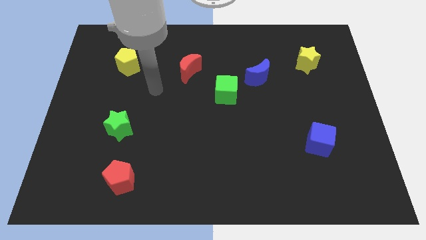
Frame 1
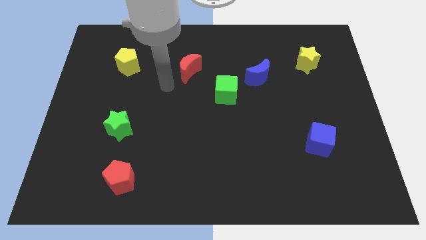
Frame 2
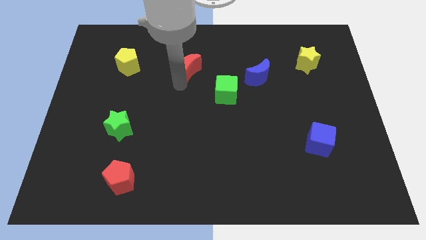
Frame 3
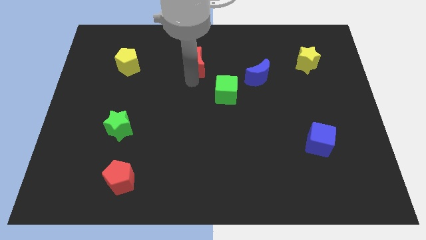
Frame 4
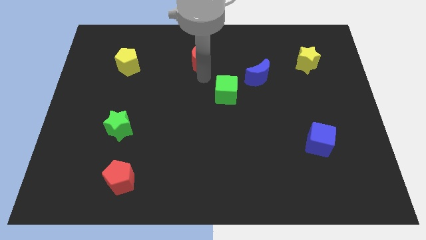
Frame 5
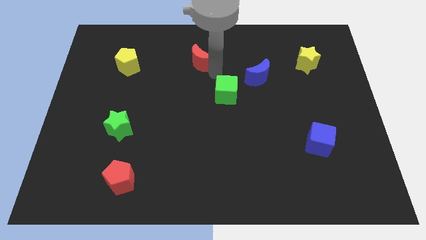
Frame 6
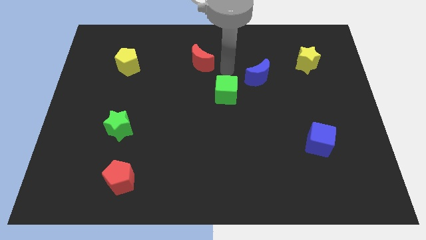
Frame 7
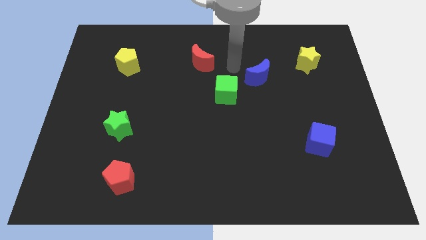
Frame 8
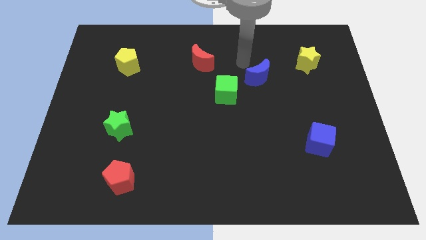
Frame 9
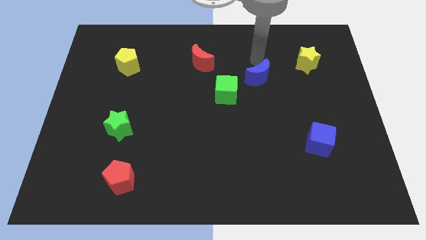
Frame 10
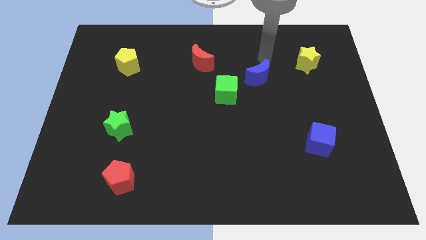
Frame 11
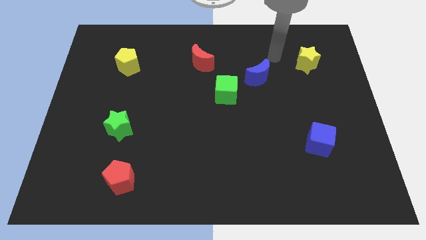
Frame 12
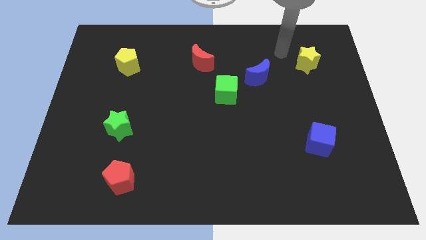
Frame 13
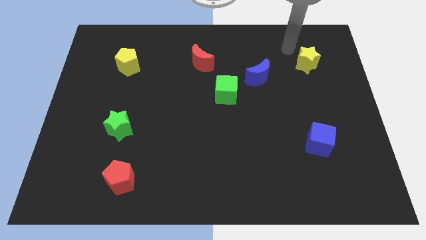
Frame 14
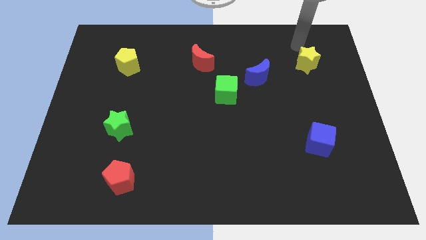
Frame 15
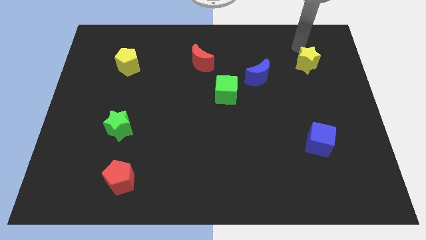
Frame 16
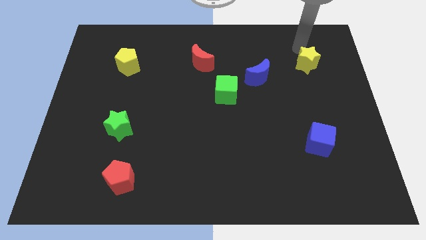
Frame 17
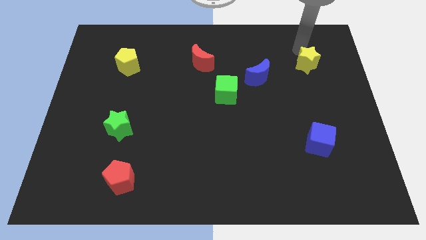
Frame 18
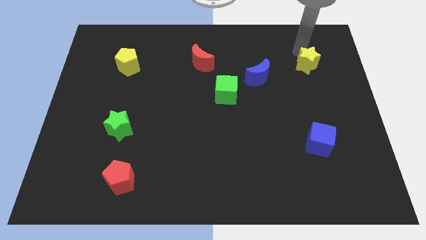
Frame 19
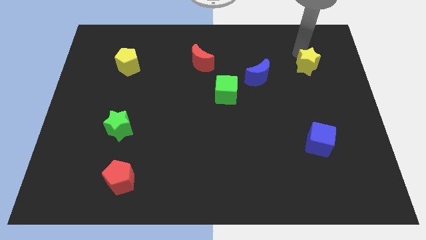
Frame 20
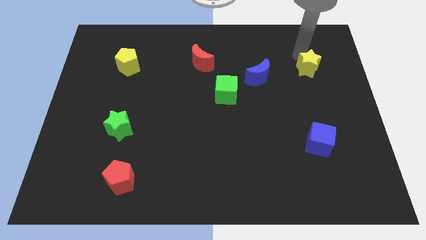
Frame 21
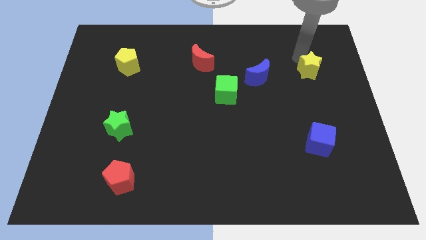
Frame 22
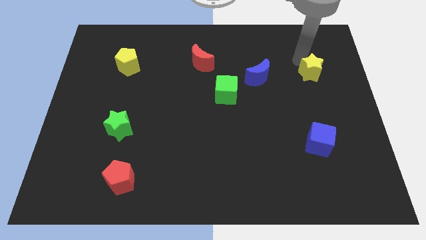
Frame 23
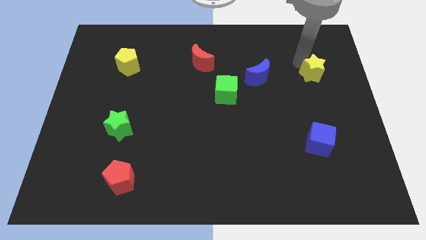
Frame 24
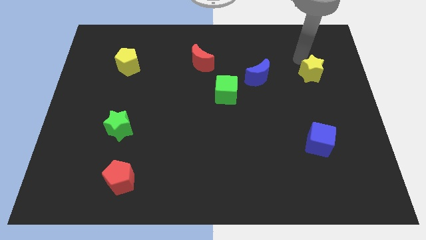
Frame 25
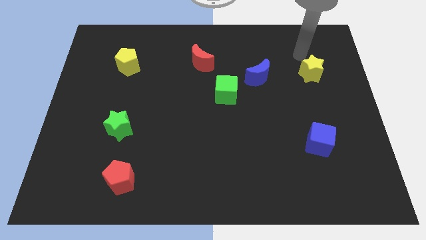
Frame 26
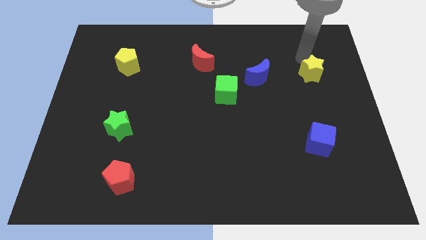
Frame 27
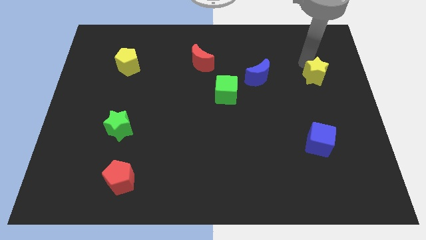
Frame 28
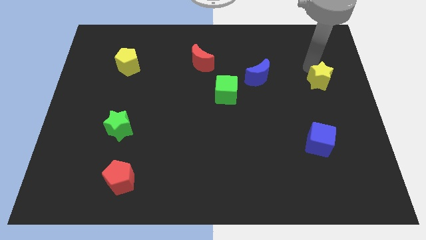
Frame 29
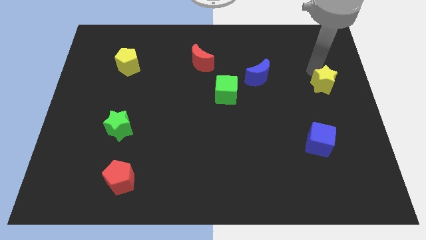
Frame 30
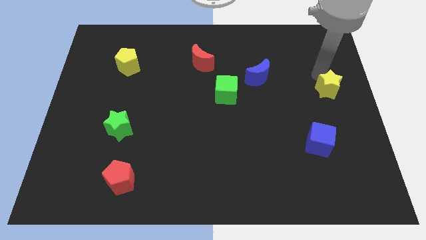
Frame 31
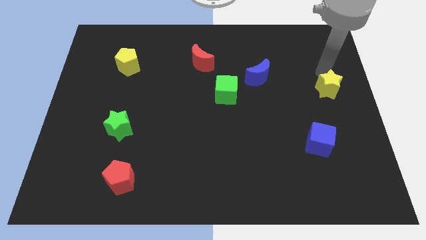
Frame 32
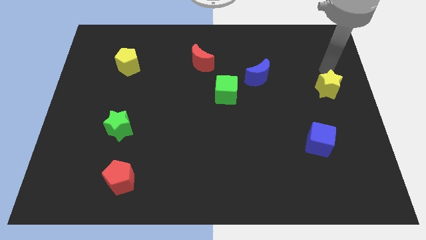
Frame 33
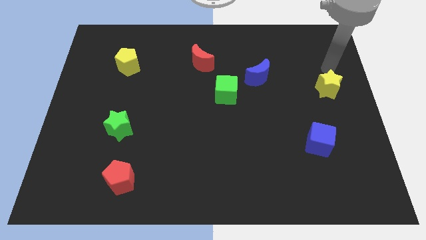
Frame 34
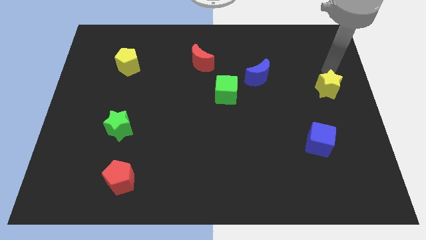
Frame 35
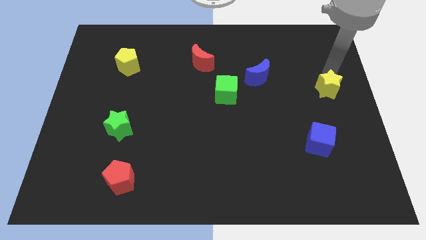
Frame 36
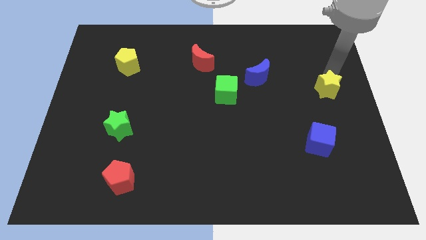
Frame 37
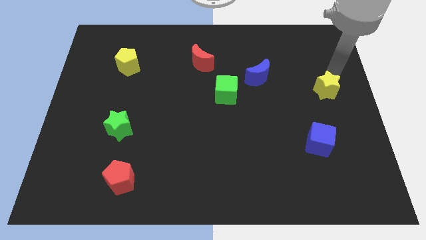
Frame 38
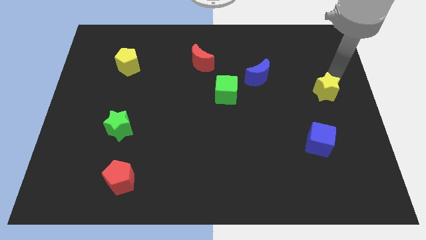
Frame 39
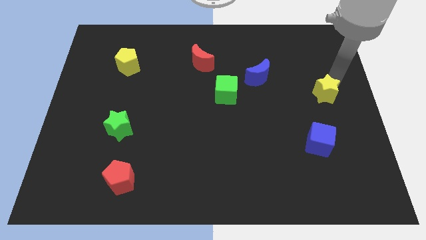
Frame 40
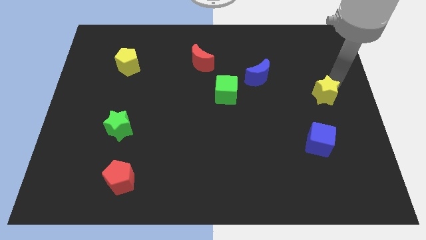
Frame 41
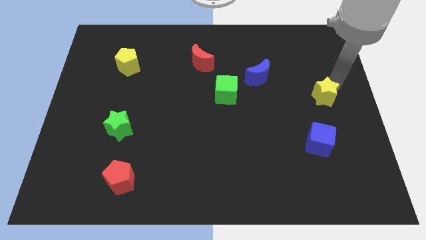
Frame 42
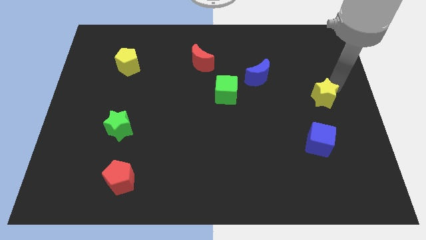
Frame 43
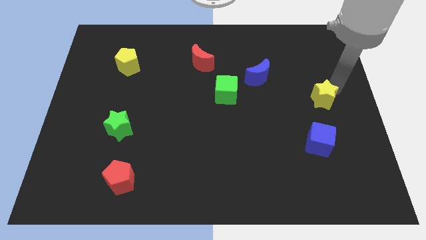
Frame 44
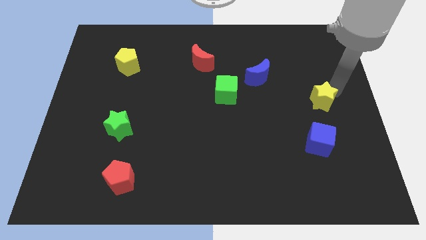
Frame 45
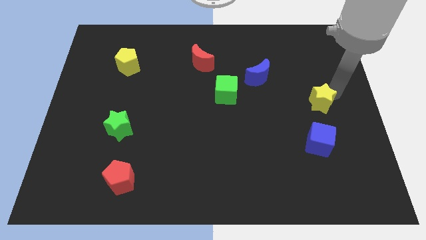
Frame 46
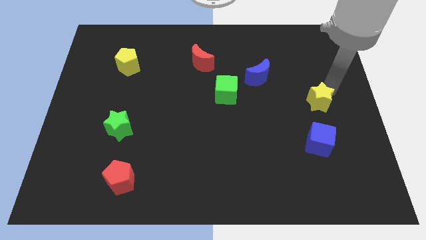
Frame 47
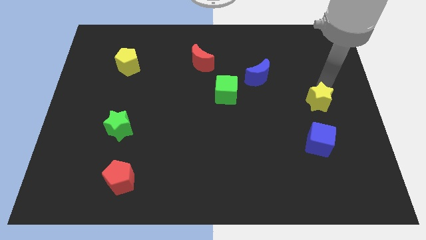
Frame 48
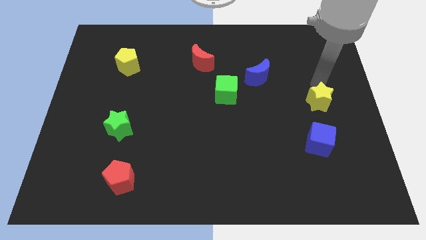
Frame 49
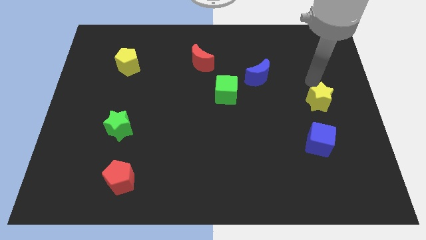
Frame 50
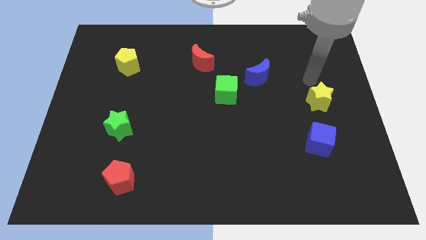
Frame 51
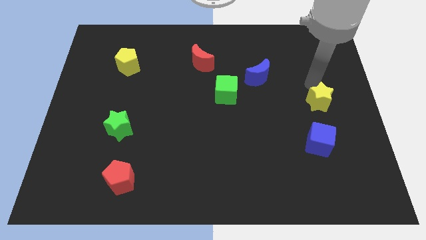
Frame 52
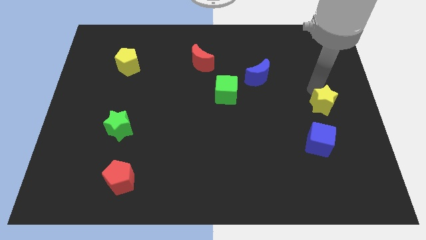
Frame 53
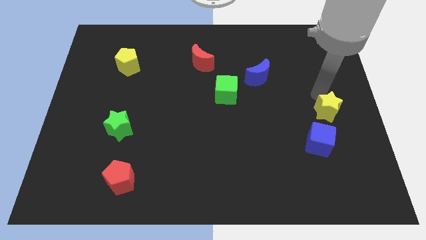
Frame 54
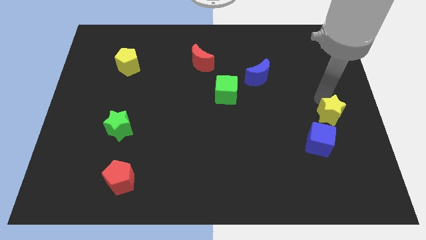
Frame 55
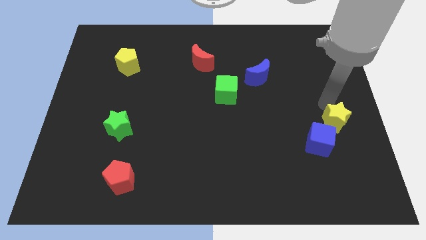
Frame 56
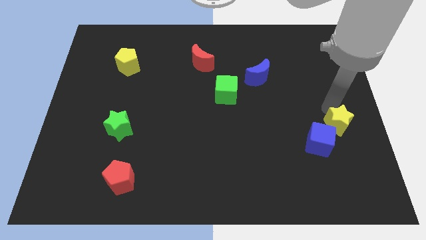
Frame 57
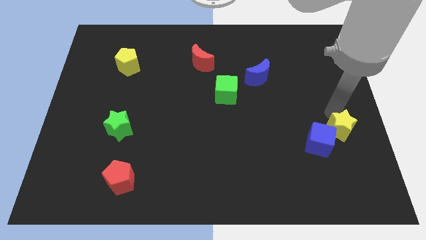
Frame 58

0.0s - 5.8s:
slide the yellow star down

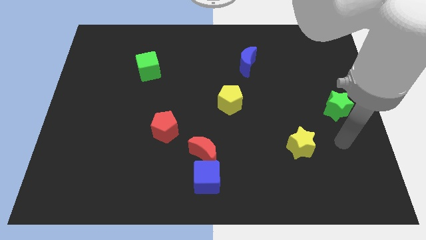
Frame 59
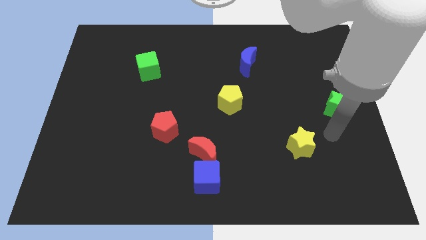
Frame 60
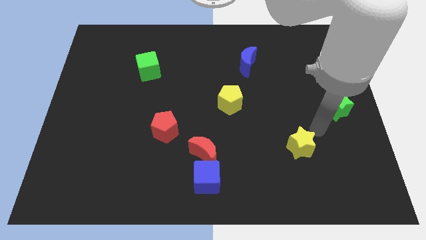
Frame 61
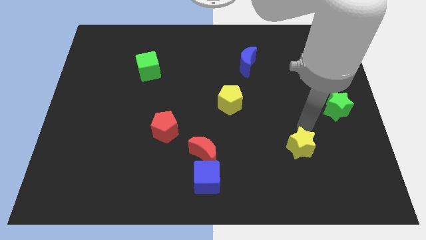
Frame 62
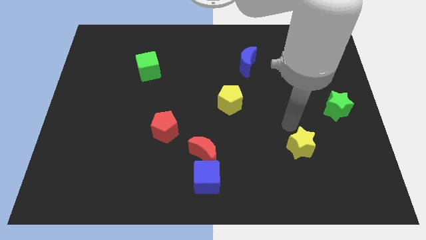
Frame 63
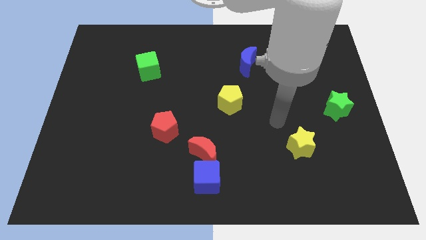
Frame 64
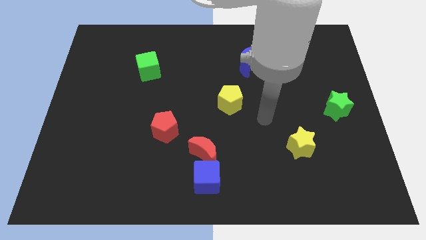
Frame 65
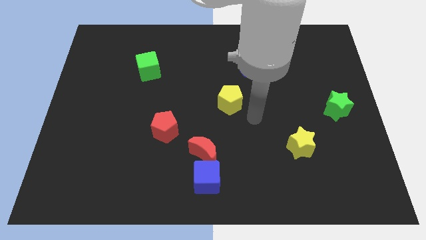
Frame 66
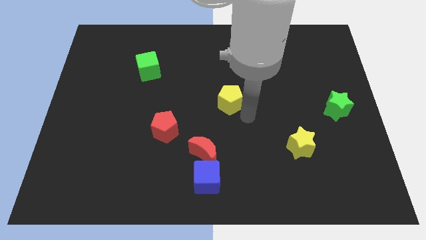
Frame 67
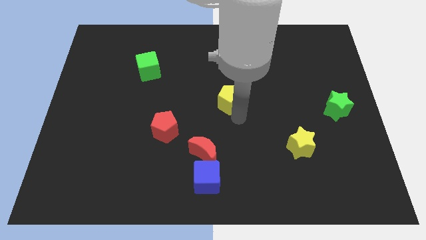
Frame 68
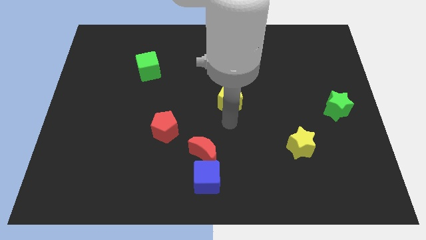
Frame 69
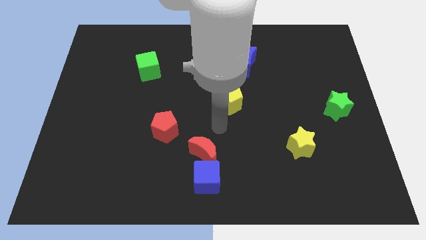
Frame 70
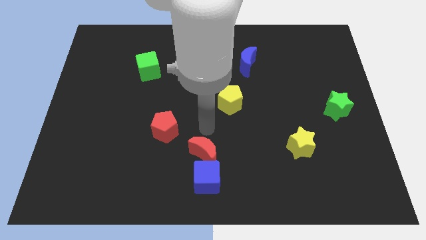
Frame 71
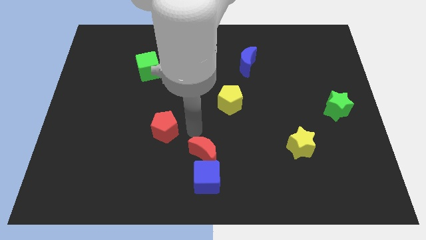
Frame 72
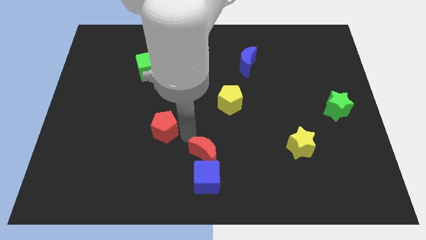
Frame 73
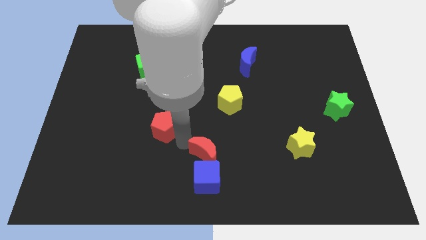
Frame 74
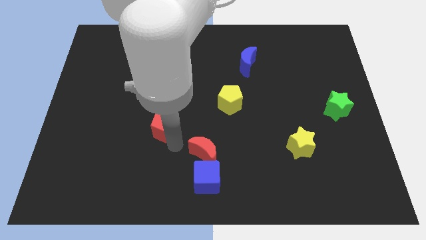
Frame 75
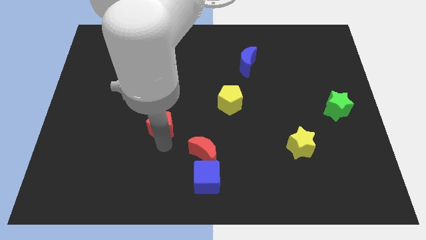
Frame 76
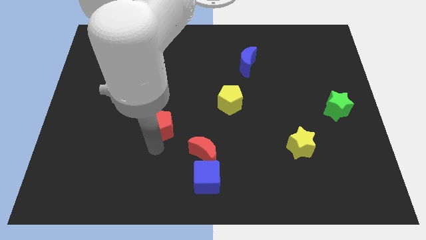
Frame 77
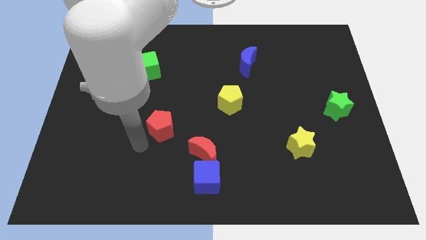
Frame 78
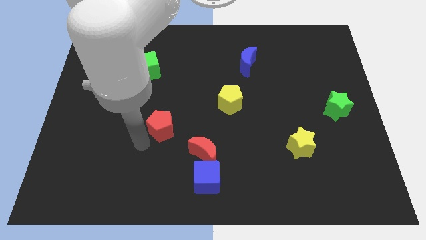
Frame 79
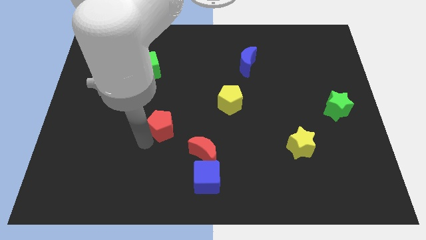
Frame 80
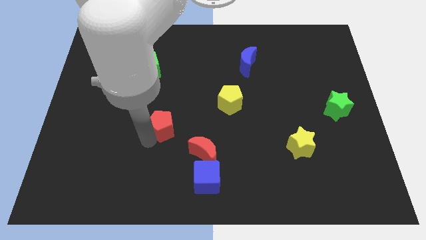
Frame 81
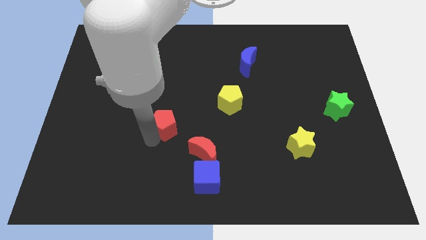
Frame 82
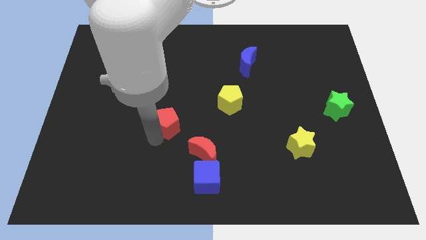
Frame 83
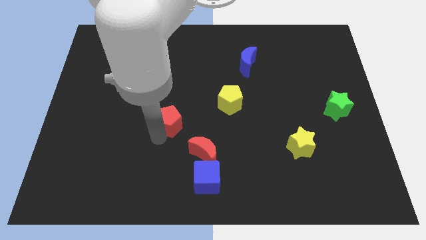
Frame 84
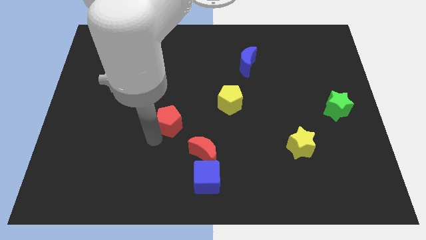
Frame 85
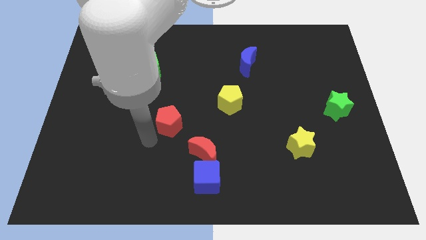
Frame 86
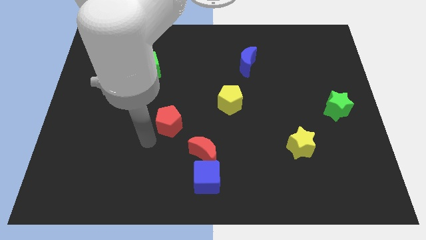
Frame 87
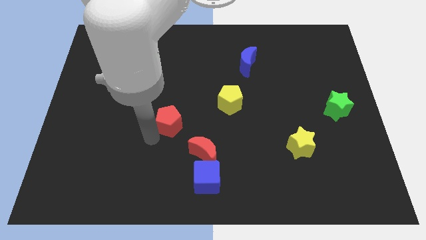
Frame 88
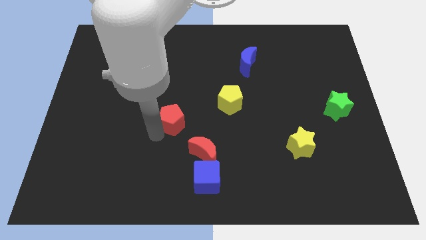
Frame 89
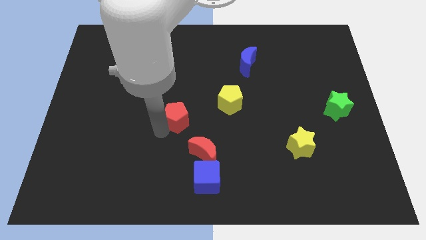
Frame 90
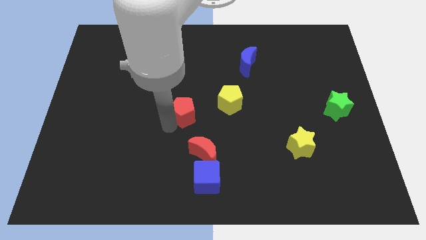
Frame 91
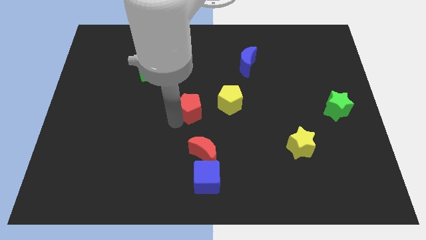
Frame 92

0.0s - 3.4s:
slightly move the red pentagon diagonally up and to the right
